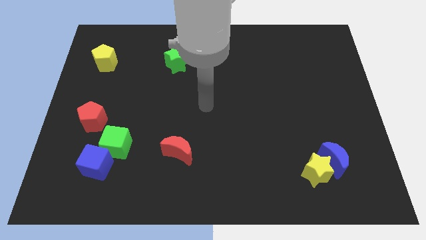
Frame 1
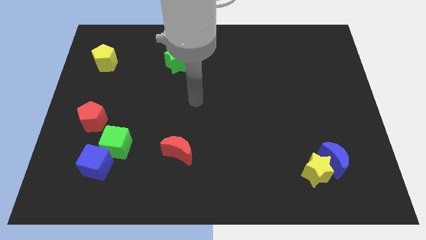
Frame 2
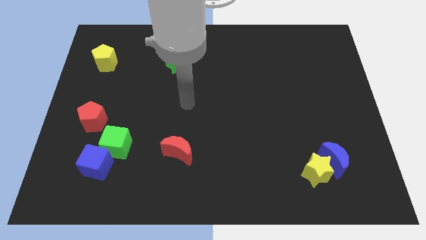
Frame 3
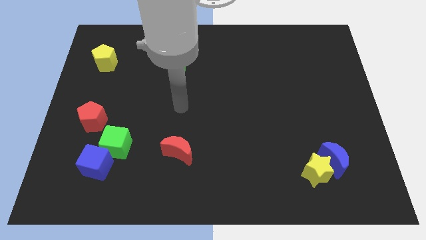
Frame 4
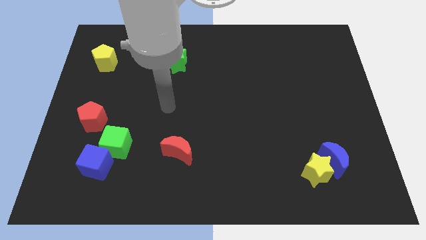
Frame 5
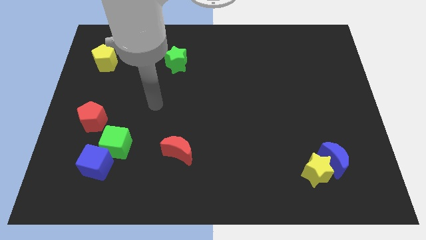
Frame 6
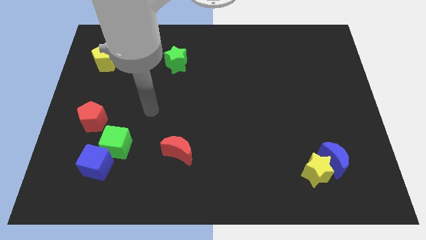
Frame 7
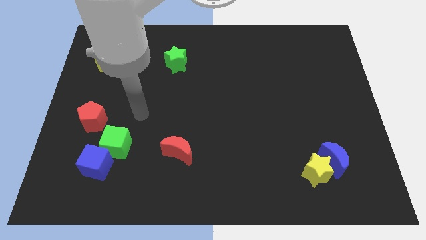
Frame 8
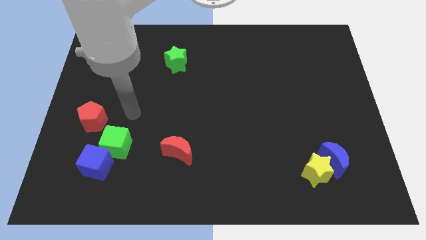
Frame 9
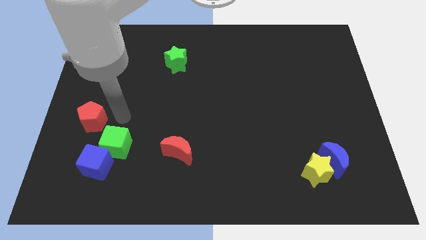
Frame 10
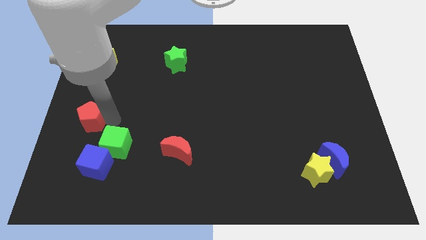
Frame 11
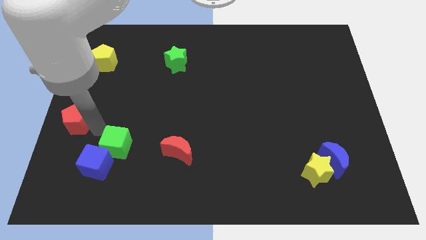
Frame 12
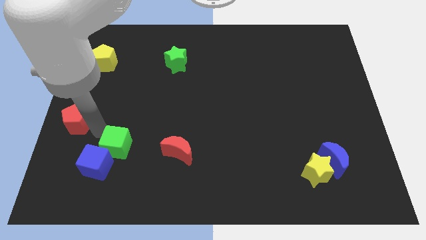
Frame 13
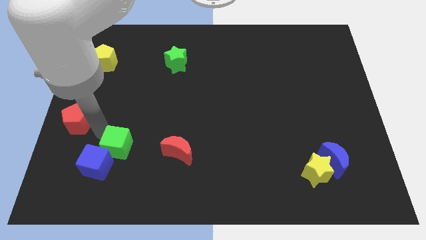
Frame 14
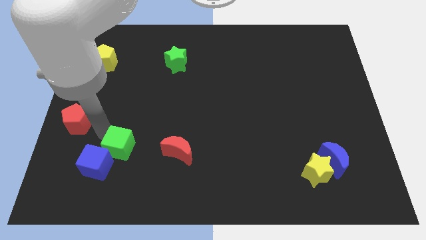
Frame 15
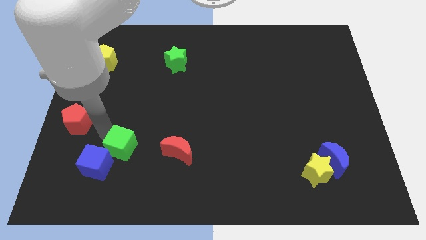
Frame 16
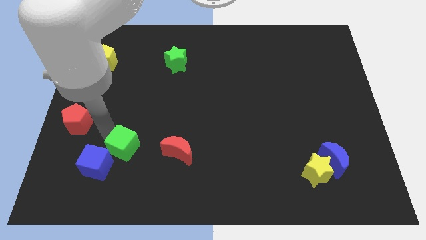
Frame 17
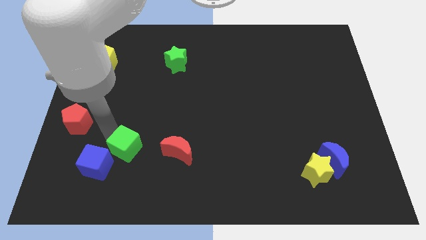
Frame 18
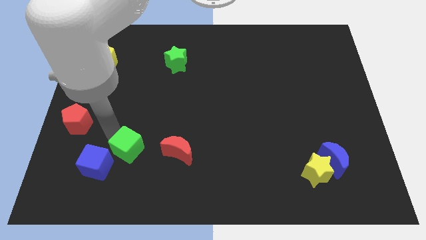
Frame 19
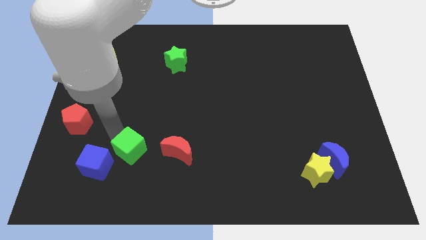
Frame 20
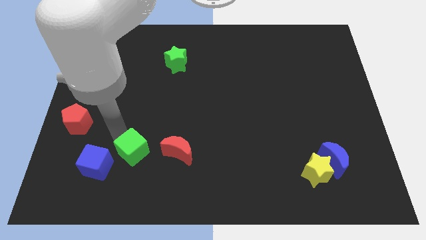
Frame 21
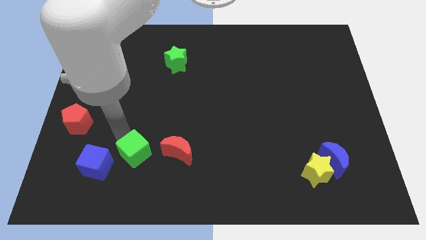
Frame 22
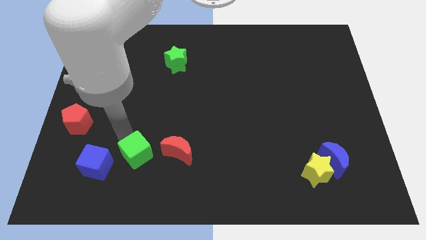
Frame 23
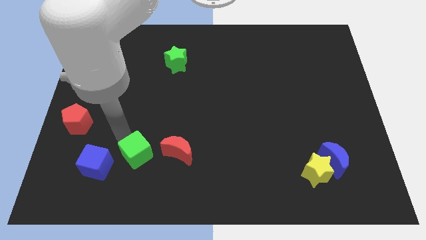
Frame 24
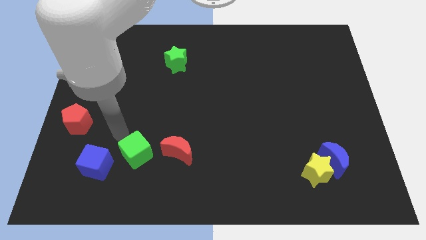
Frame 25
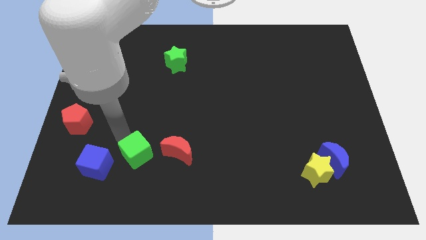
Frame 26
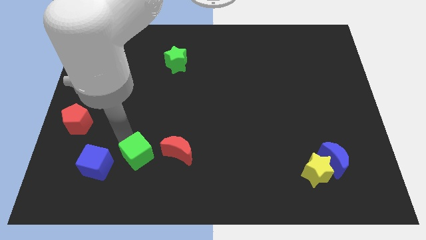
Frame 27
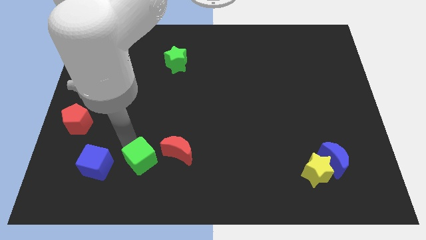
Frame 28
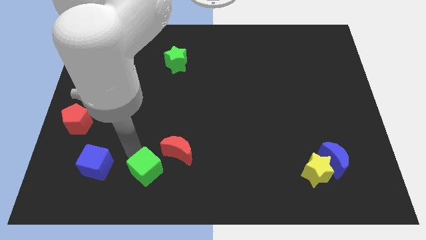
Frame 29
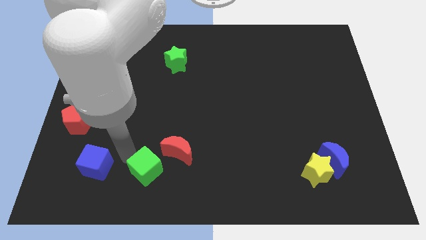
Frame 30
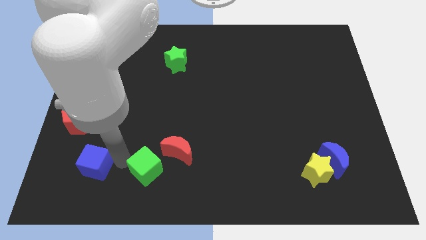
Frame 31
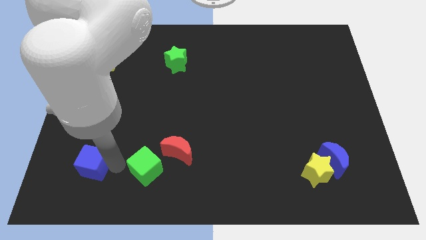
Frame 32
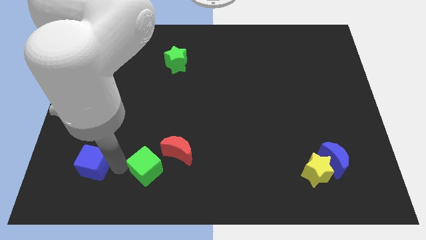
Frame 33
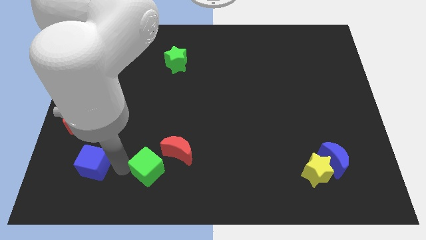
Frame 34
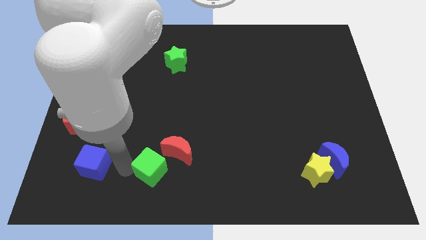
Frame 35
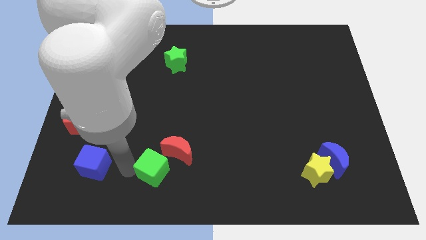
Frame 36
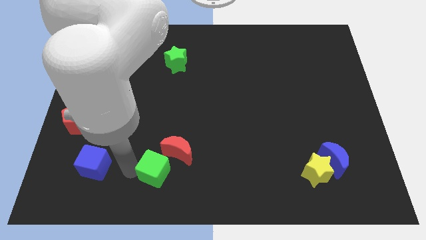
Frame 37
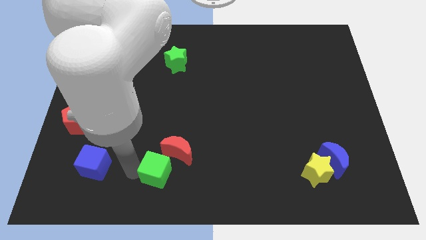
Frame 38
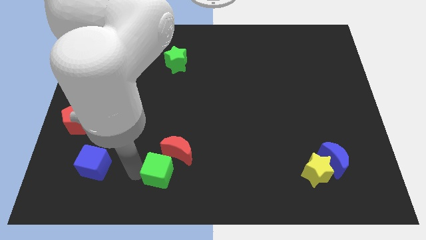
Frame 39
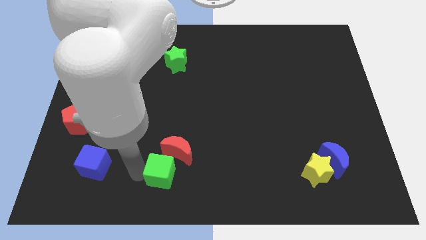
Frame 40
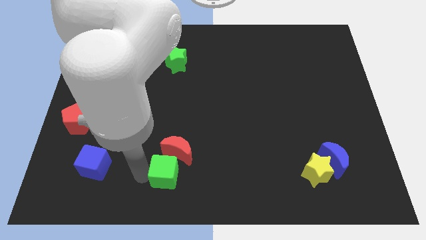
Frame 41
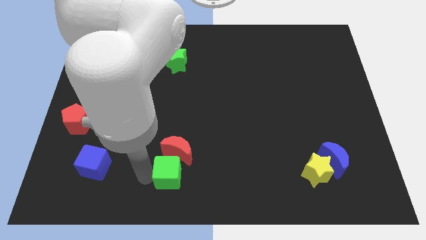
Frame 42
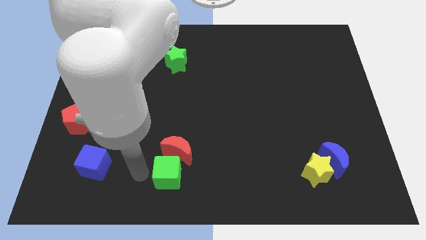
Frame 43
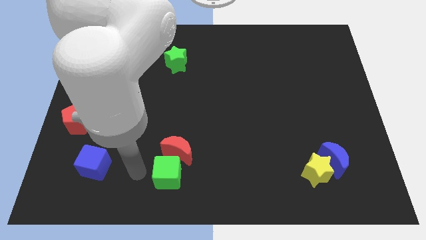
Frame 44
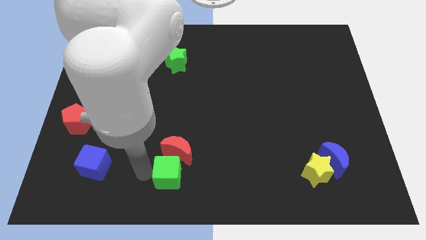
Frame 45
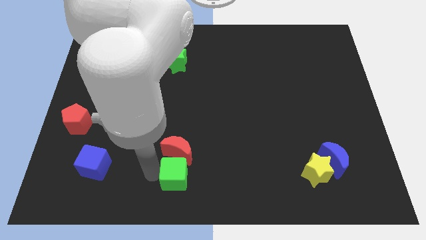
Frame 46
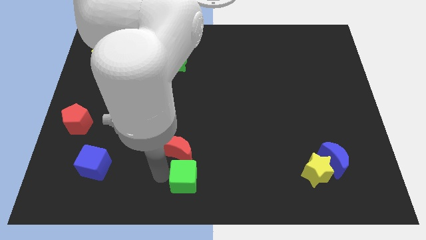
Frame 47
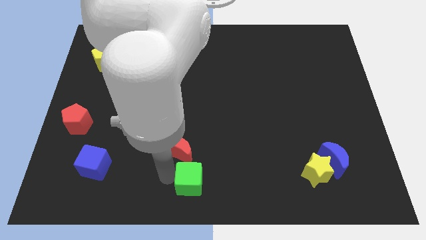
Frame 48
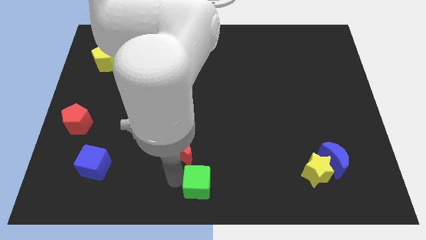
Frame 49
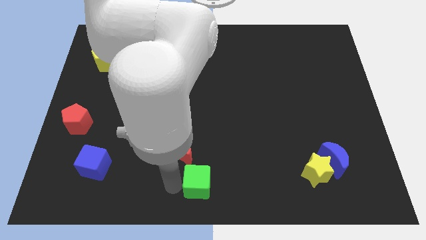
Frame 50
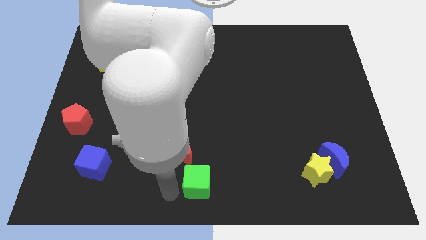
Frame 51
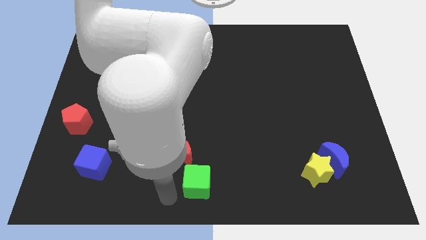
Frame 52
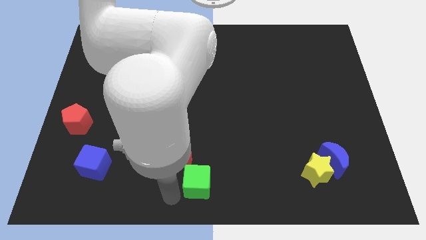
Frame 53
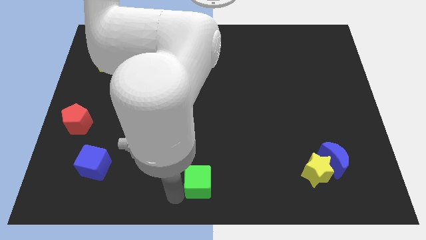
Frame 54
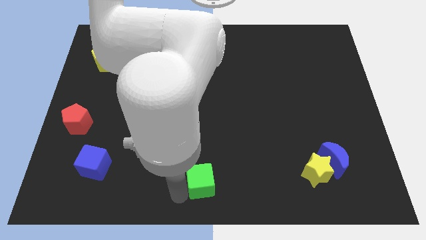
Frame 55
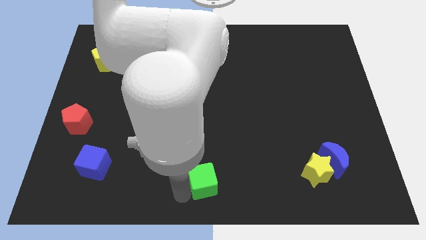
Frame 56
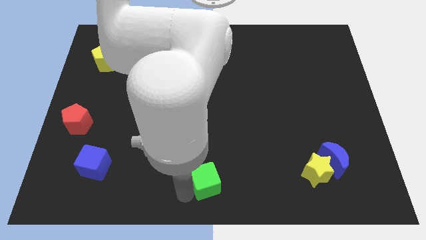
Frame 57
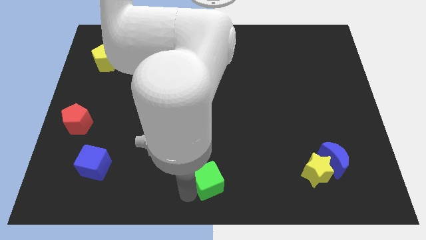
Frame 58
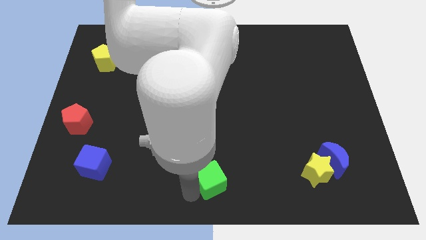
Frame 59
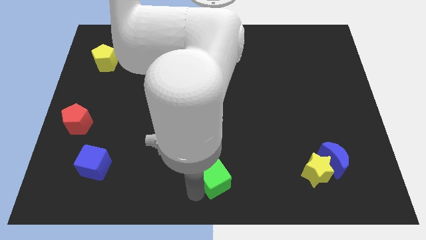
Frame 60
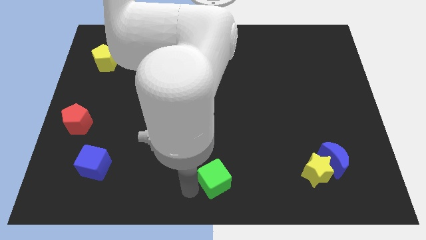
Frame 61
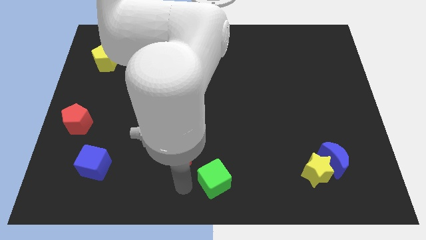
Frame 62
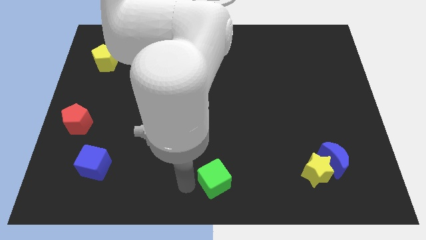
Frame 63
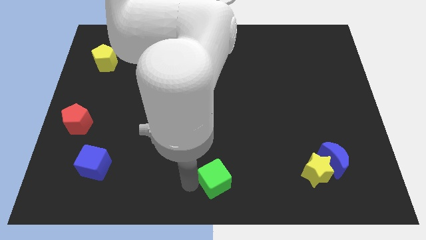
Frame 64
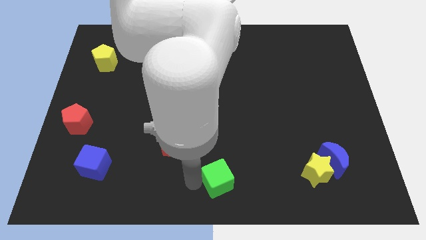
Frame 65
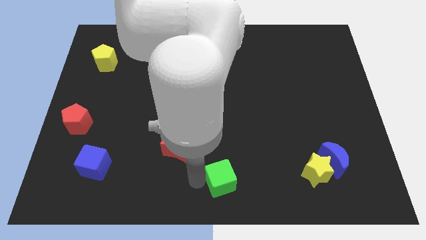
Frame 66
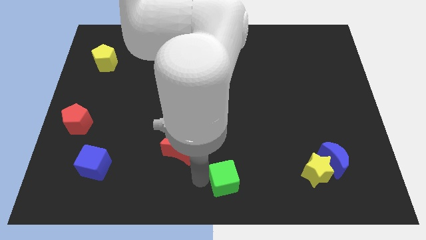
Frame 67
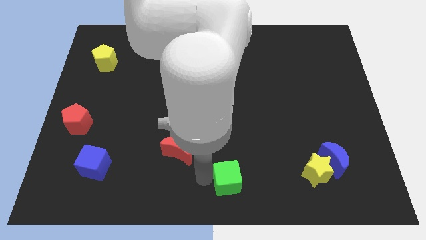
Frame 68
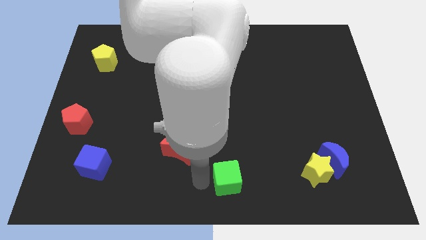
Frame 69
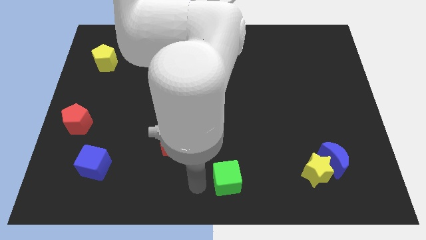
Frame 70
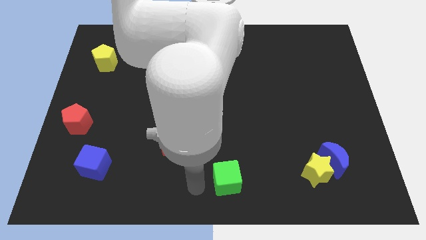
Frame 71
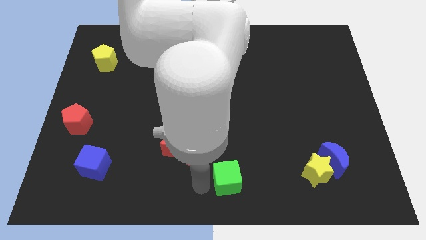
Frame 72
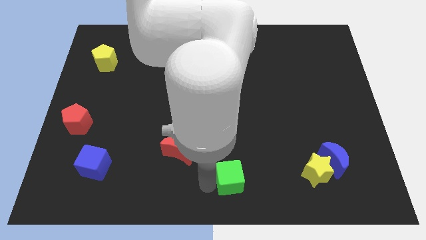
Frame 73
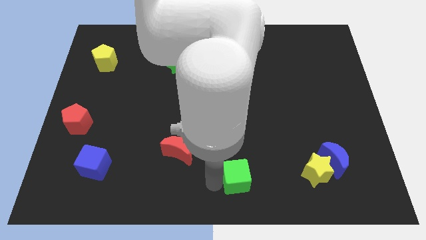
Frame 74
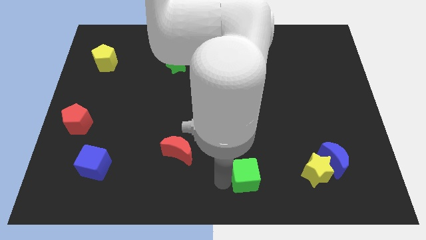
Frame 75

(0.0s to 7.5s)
slide the green cube just left of the yellow star
